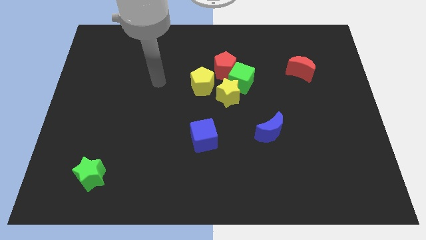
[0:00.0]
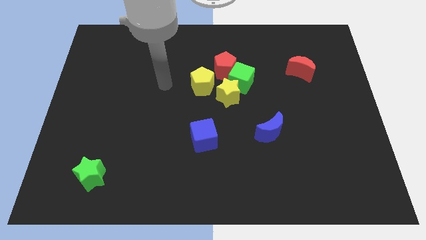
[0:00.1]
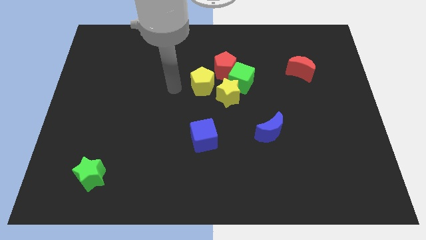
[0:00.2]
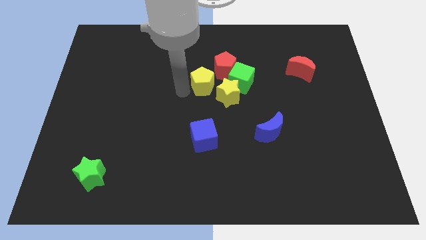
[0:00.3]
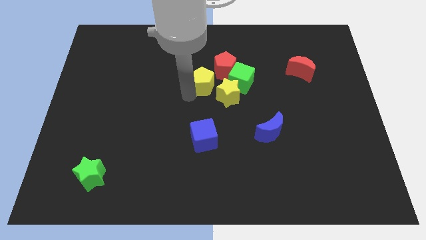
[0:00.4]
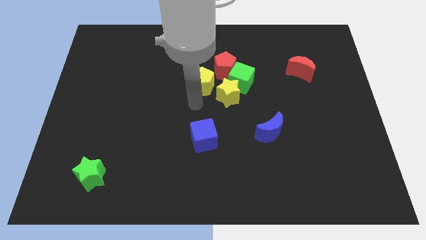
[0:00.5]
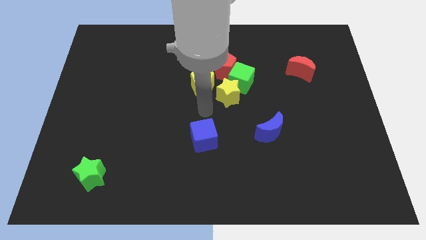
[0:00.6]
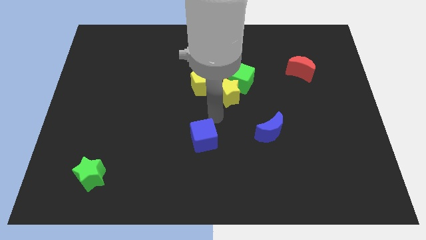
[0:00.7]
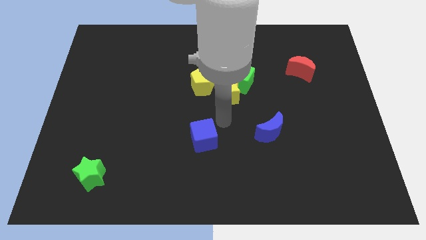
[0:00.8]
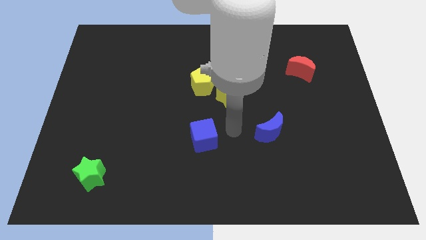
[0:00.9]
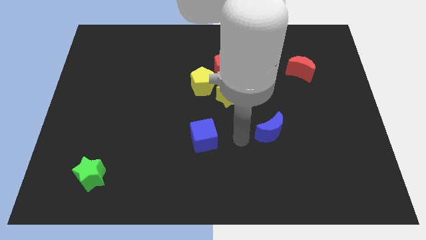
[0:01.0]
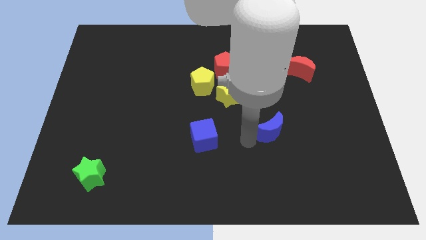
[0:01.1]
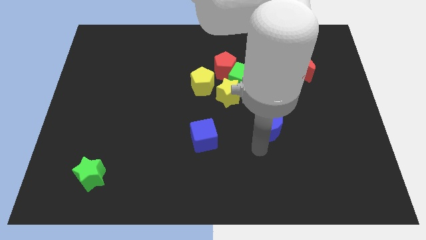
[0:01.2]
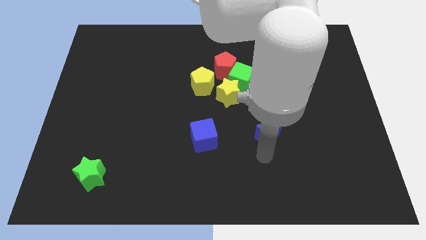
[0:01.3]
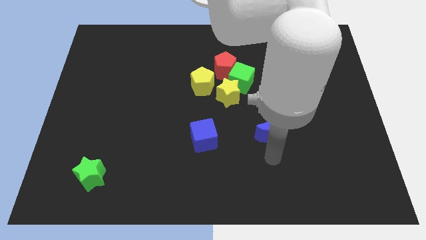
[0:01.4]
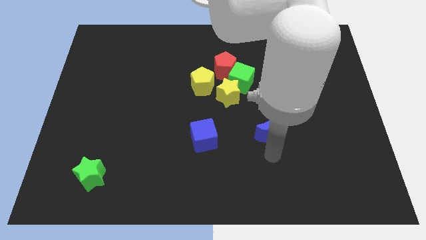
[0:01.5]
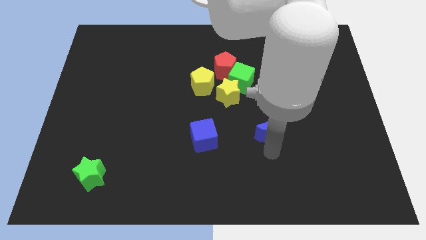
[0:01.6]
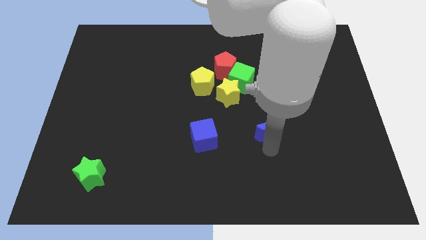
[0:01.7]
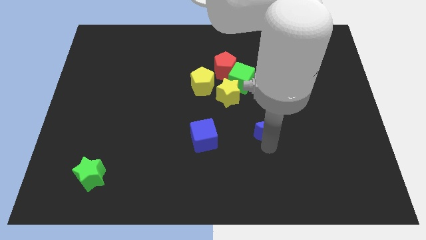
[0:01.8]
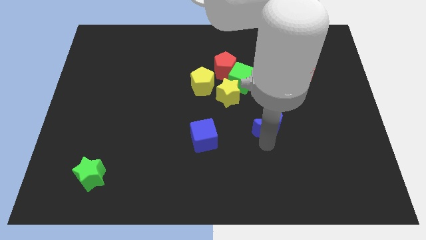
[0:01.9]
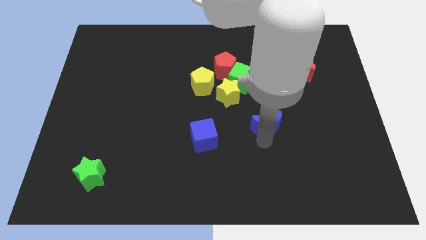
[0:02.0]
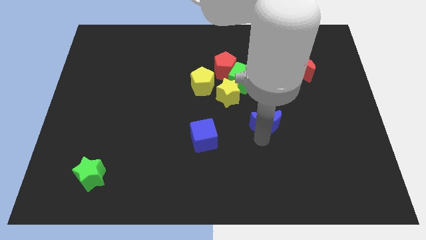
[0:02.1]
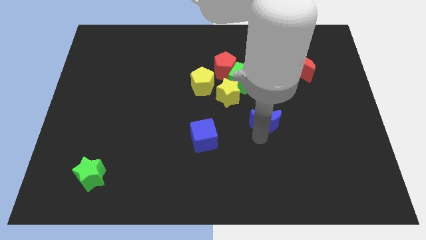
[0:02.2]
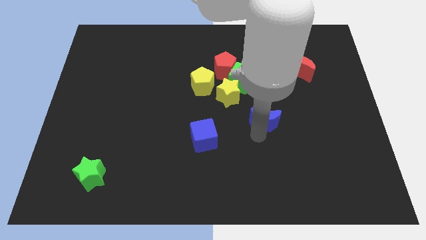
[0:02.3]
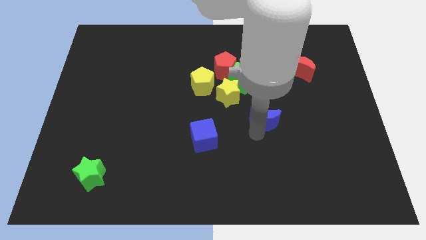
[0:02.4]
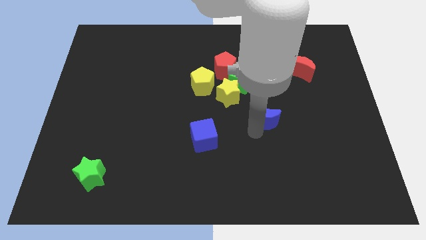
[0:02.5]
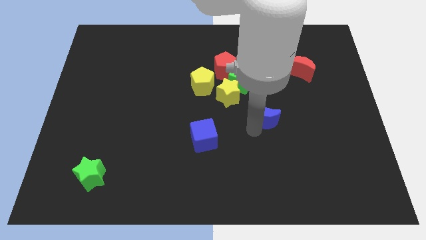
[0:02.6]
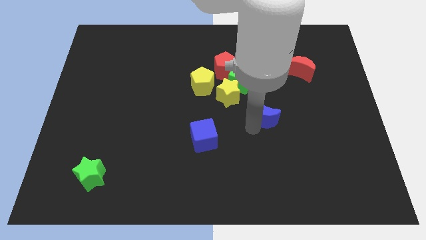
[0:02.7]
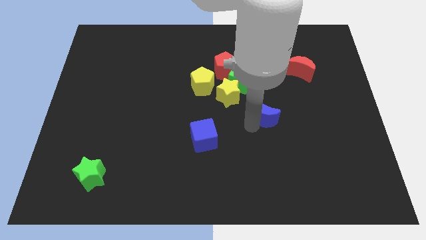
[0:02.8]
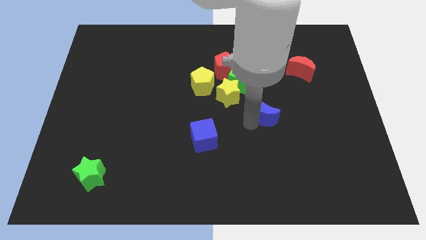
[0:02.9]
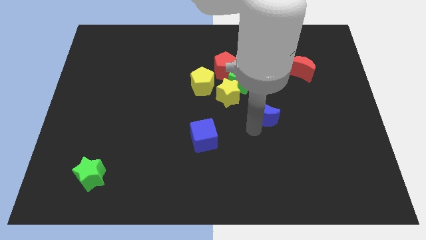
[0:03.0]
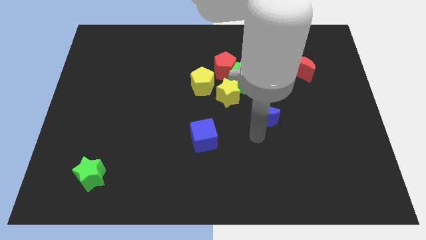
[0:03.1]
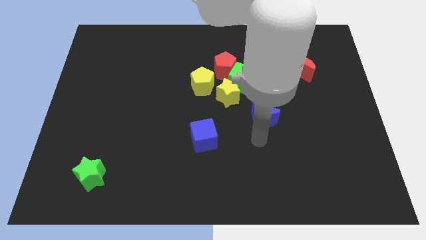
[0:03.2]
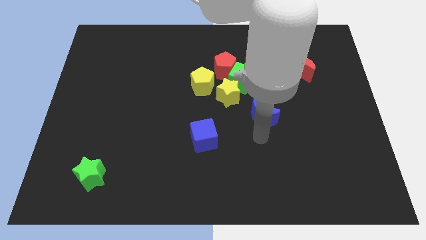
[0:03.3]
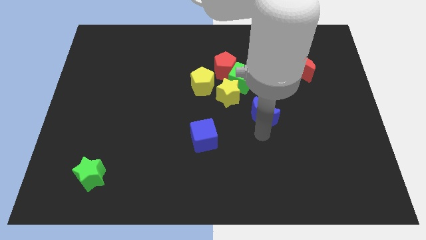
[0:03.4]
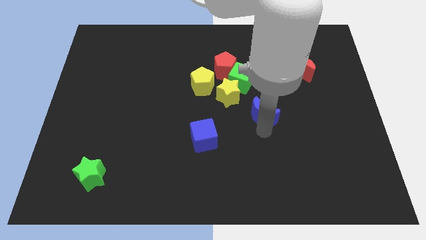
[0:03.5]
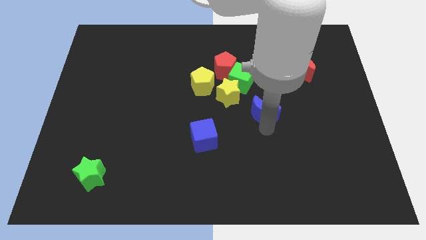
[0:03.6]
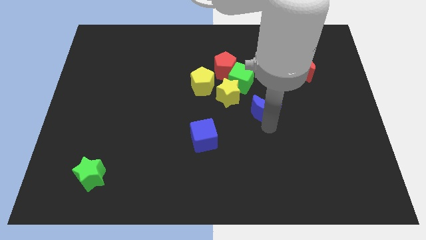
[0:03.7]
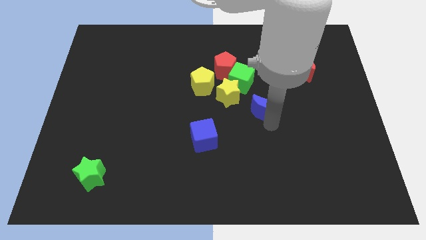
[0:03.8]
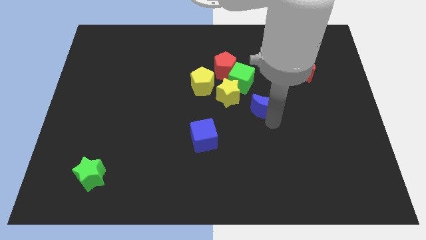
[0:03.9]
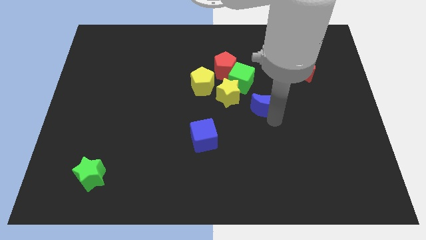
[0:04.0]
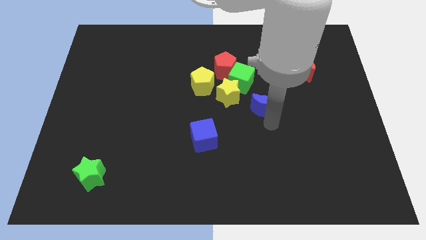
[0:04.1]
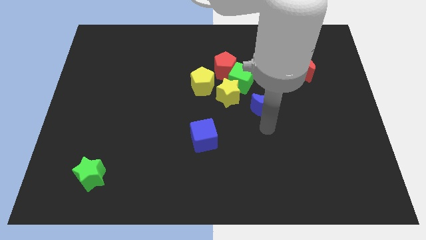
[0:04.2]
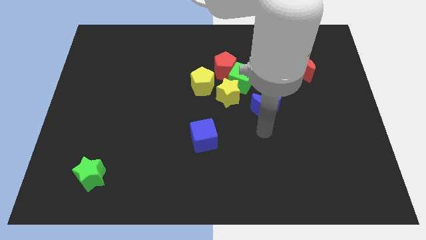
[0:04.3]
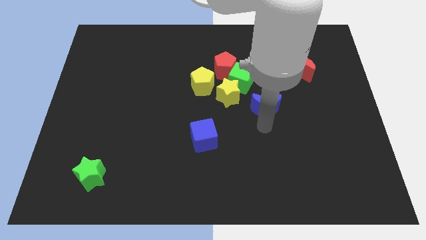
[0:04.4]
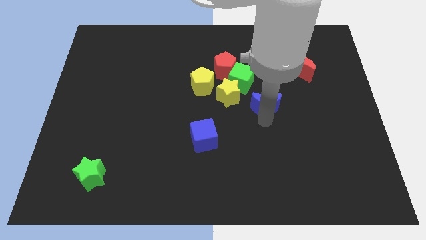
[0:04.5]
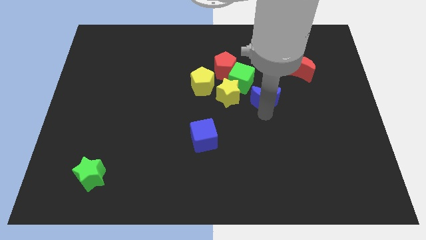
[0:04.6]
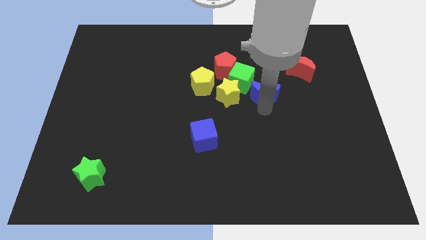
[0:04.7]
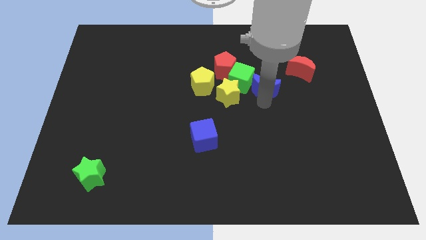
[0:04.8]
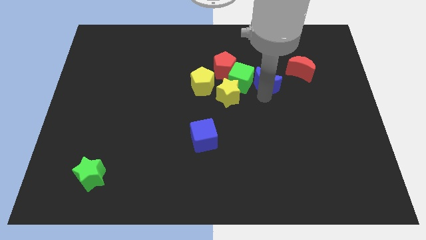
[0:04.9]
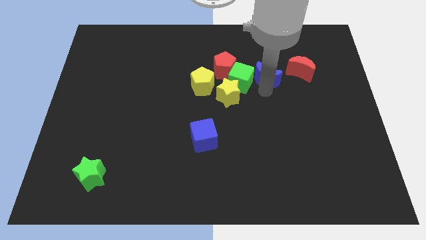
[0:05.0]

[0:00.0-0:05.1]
put the blue moon just right of the red pentagon

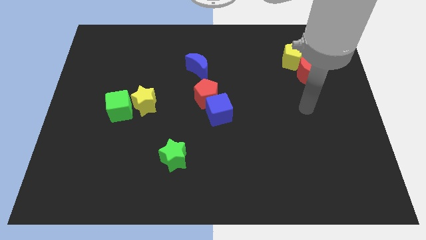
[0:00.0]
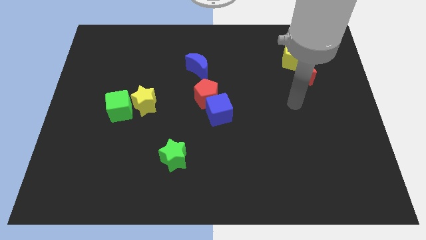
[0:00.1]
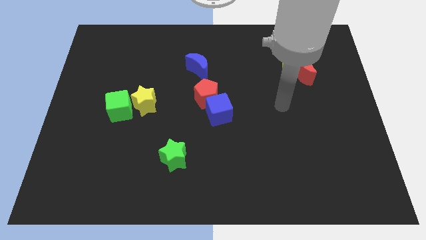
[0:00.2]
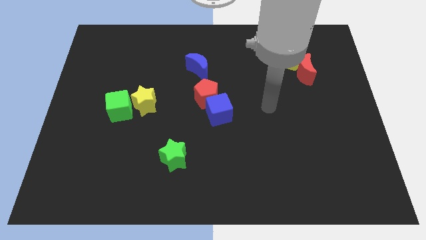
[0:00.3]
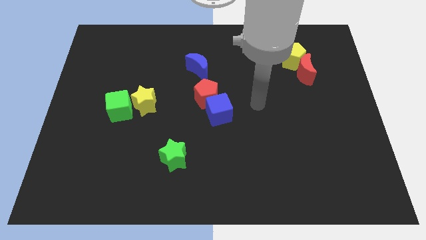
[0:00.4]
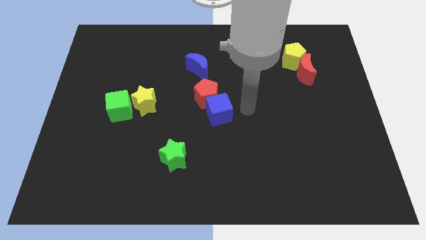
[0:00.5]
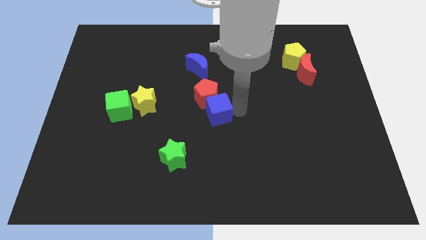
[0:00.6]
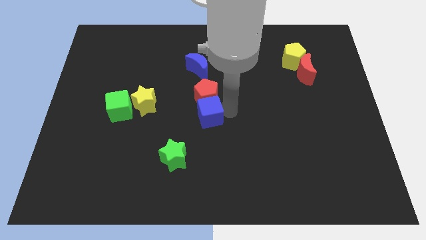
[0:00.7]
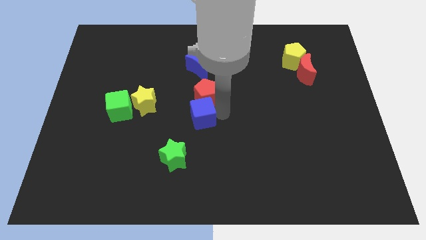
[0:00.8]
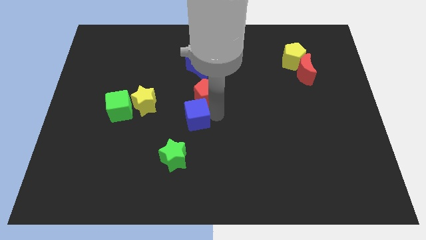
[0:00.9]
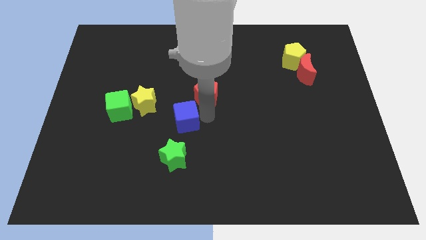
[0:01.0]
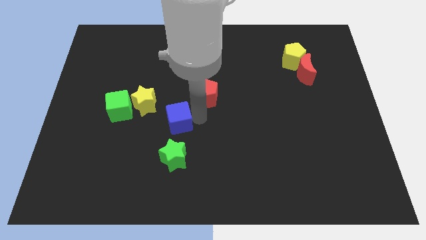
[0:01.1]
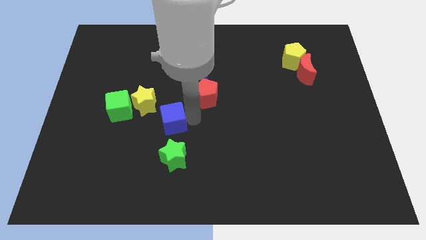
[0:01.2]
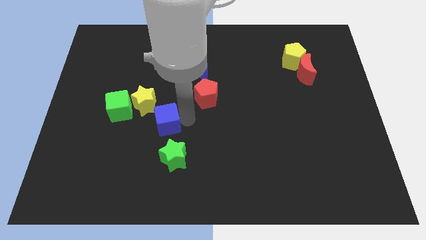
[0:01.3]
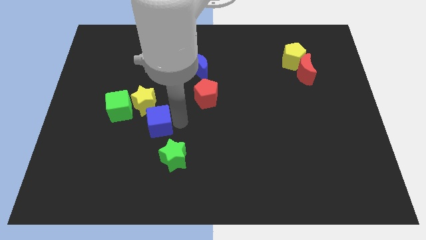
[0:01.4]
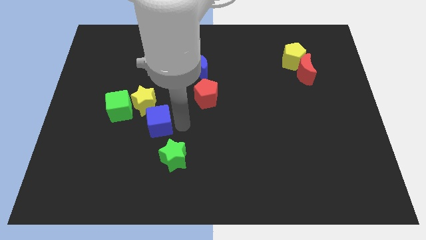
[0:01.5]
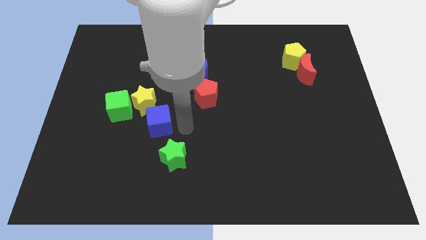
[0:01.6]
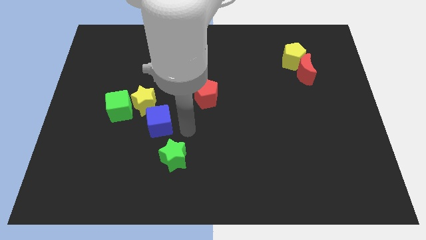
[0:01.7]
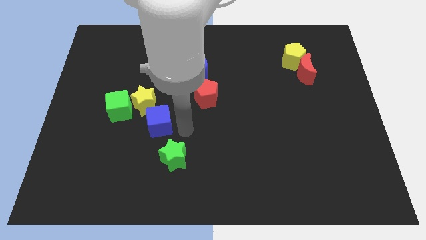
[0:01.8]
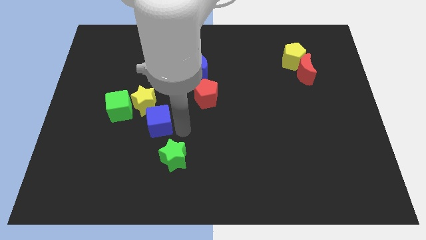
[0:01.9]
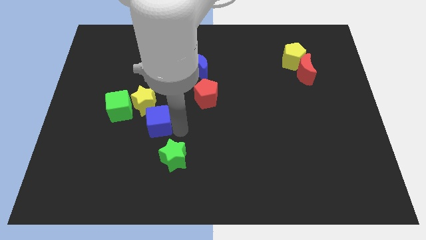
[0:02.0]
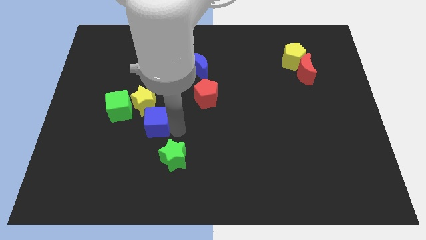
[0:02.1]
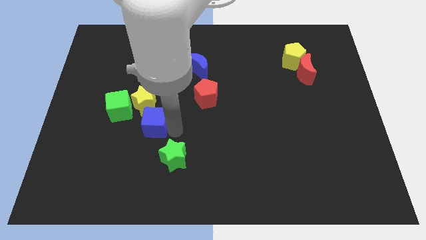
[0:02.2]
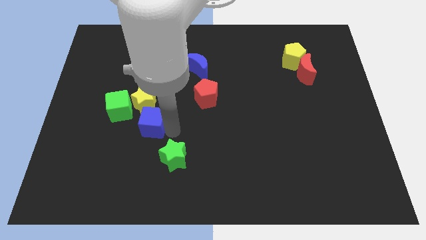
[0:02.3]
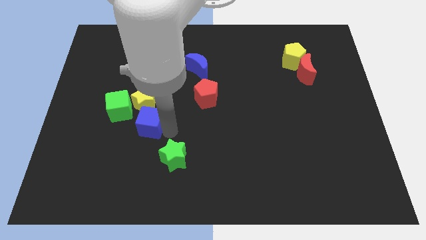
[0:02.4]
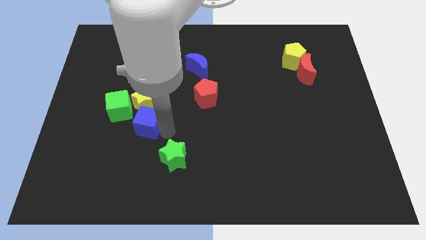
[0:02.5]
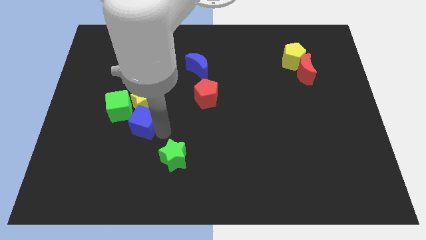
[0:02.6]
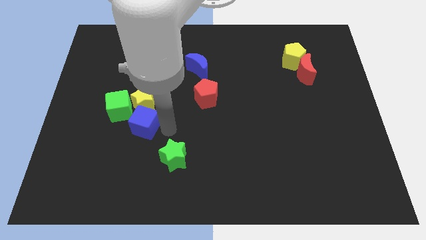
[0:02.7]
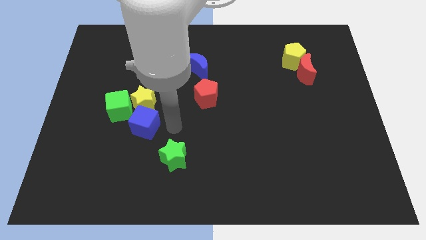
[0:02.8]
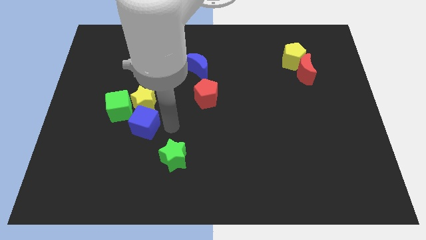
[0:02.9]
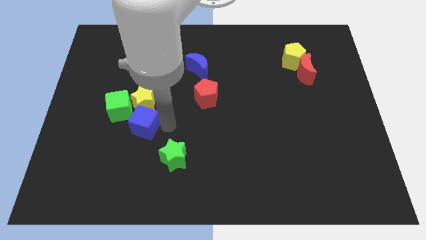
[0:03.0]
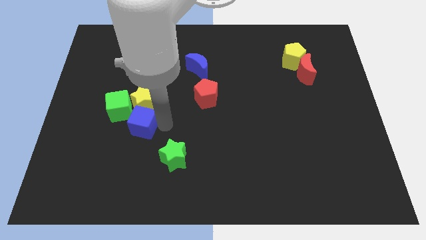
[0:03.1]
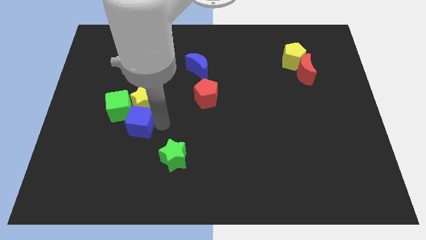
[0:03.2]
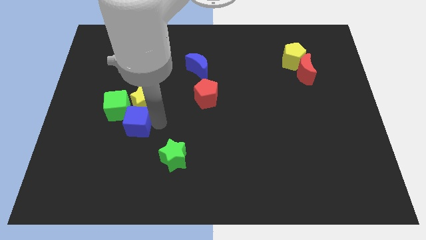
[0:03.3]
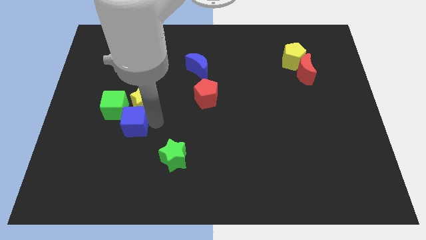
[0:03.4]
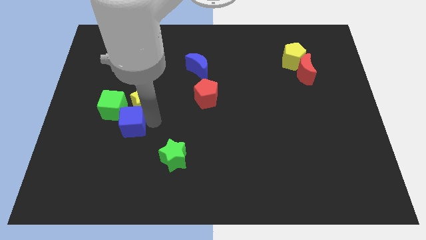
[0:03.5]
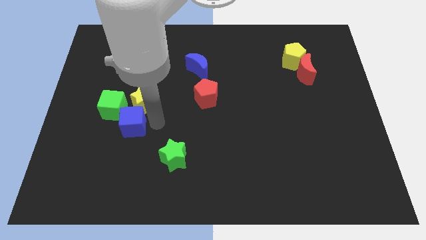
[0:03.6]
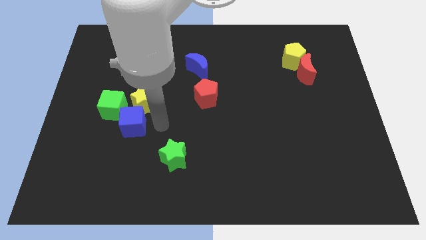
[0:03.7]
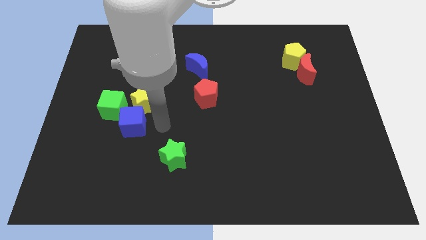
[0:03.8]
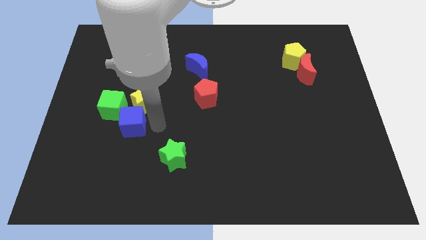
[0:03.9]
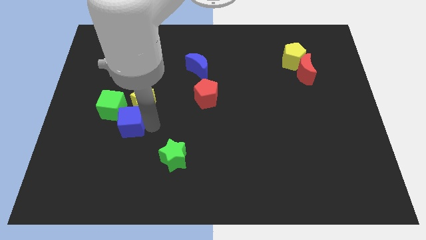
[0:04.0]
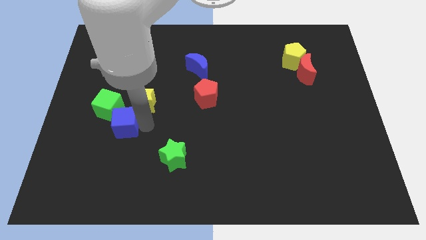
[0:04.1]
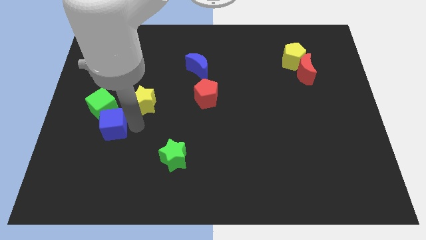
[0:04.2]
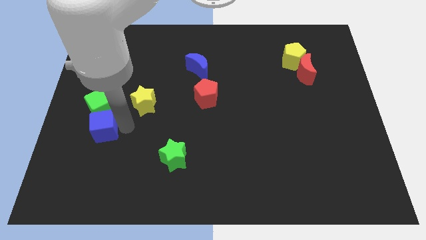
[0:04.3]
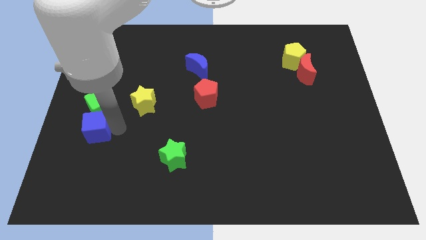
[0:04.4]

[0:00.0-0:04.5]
move the blue cube to the bottom left of the green cube
